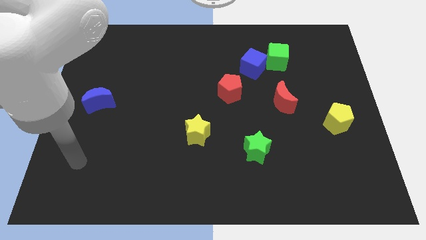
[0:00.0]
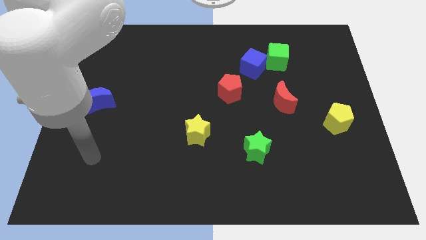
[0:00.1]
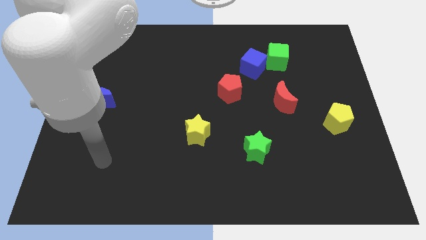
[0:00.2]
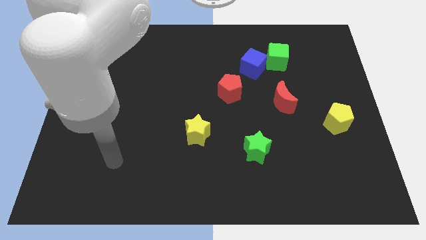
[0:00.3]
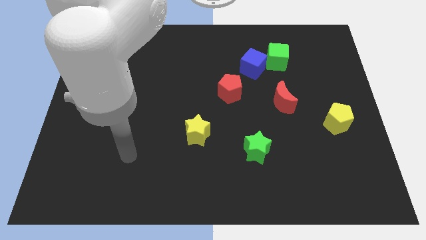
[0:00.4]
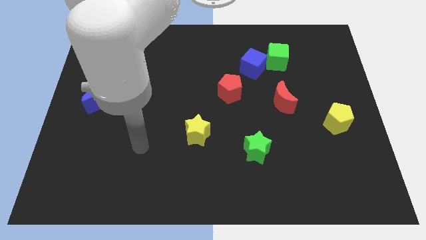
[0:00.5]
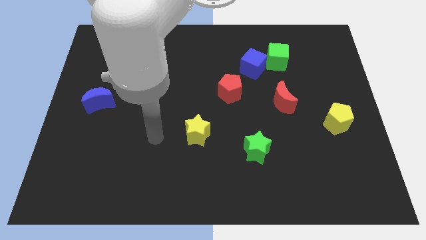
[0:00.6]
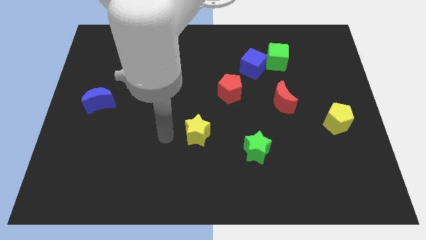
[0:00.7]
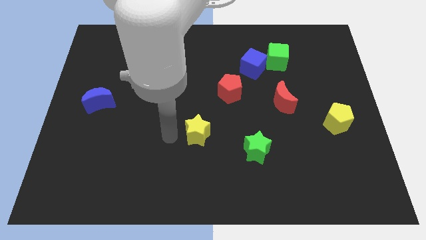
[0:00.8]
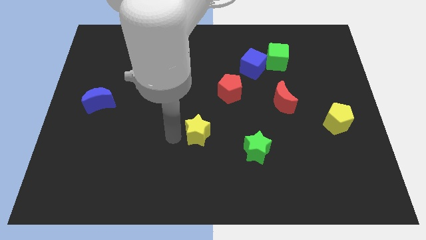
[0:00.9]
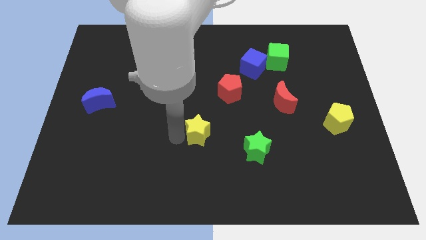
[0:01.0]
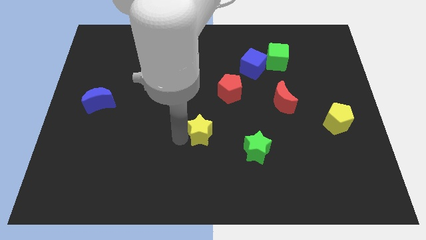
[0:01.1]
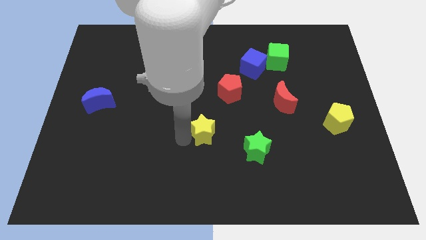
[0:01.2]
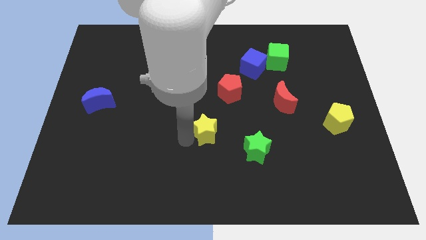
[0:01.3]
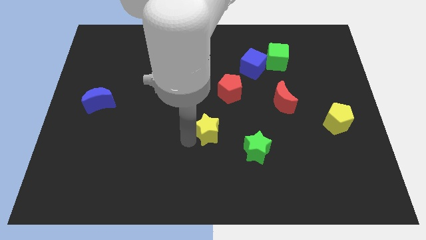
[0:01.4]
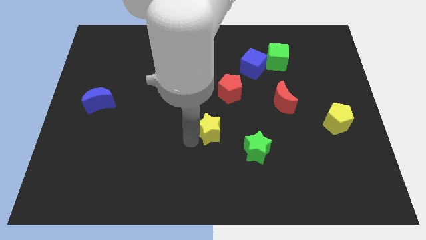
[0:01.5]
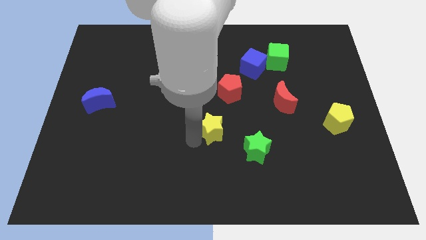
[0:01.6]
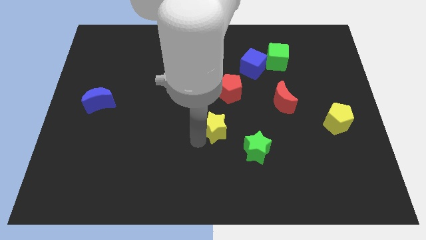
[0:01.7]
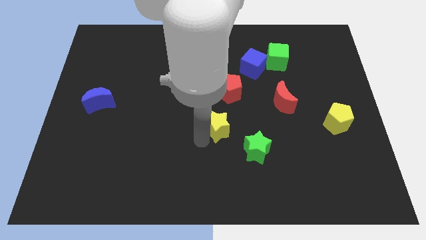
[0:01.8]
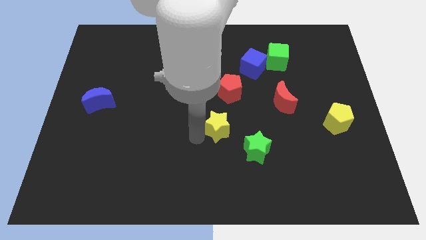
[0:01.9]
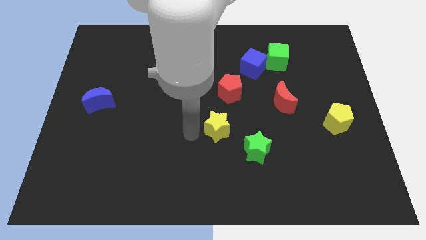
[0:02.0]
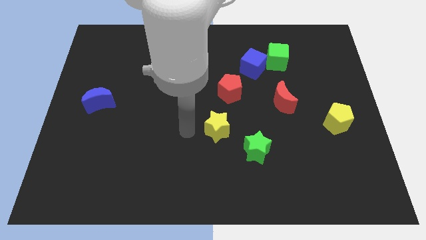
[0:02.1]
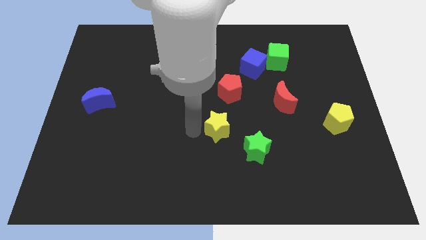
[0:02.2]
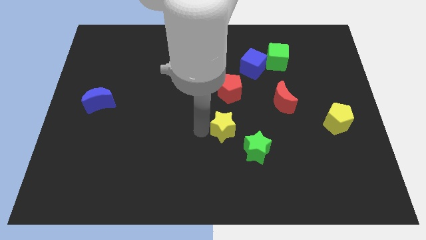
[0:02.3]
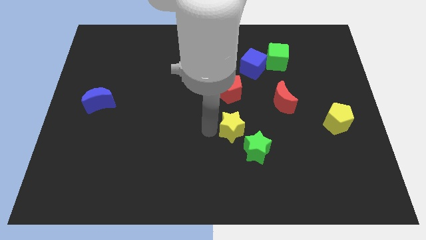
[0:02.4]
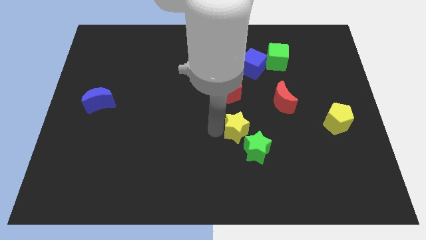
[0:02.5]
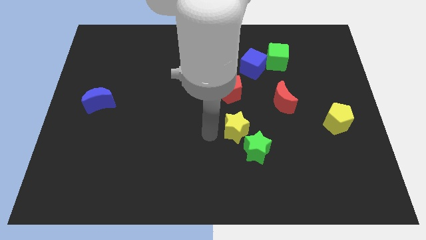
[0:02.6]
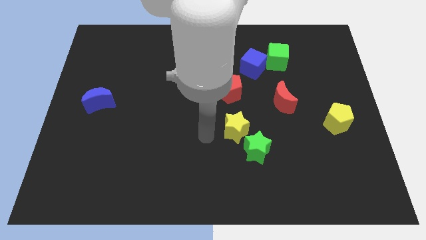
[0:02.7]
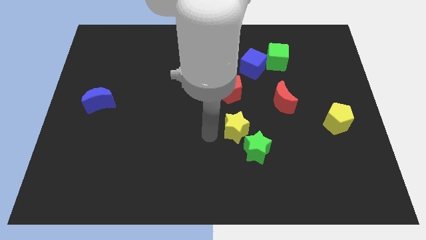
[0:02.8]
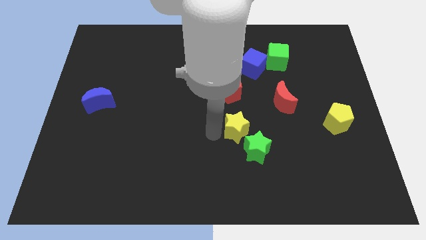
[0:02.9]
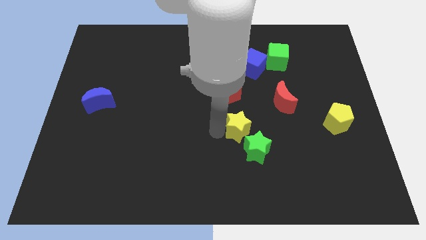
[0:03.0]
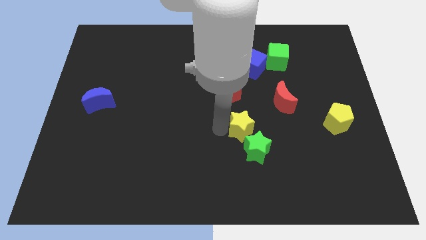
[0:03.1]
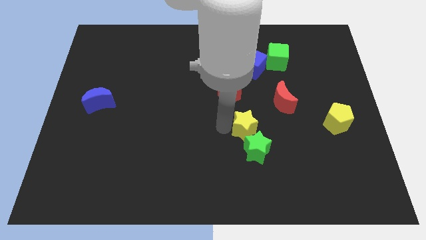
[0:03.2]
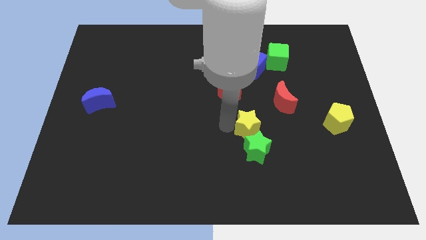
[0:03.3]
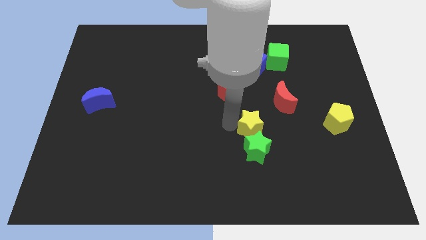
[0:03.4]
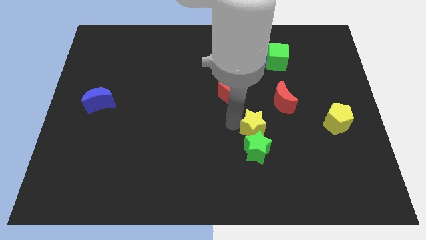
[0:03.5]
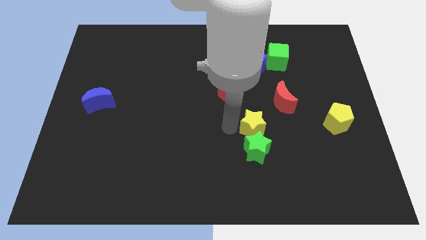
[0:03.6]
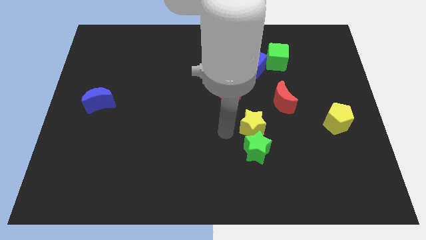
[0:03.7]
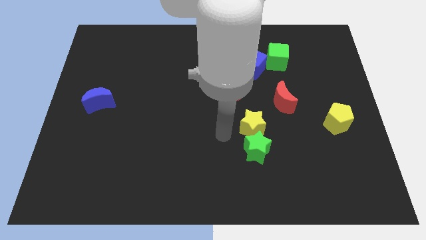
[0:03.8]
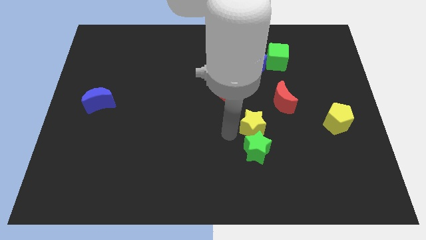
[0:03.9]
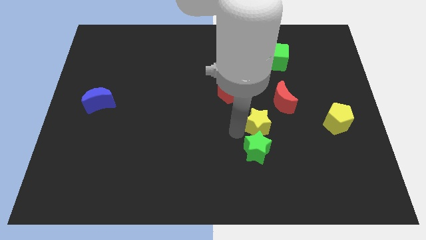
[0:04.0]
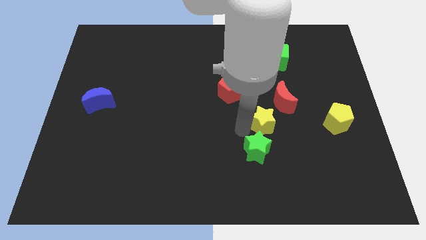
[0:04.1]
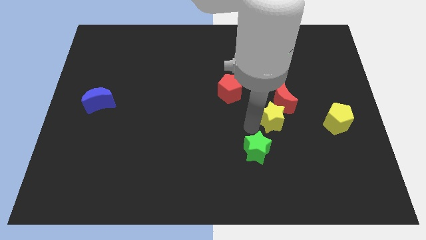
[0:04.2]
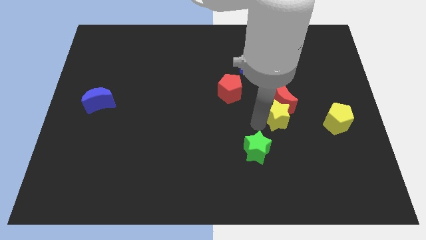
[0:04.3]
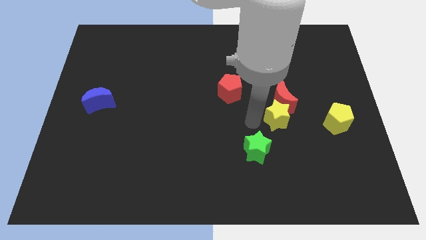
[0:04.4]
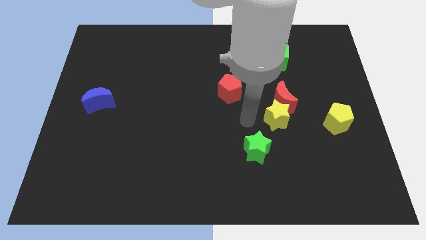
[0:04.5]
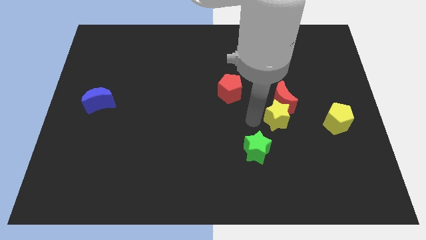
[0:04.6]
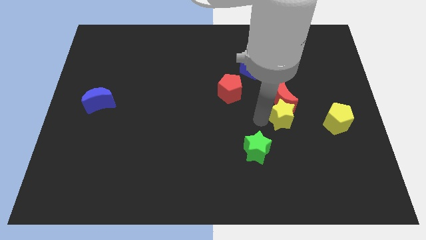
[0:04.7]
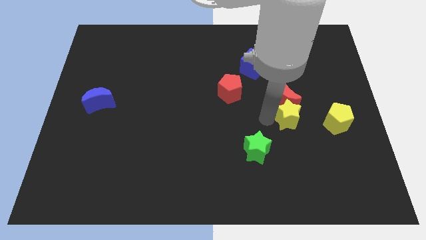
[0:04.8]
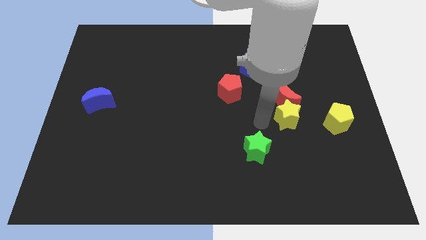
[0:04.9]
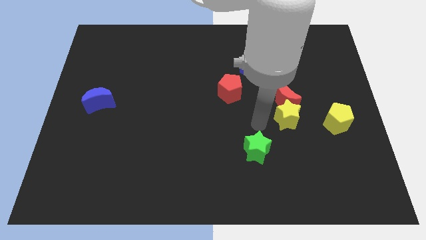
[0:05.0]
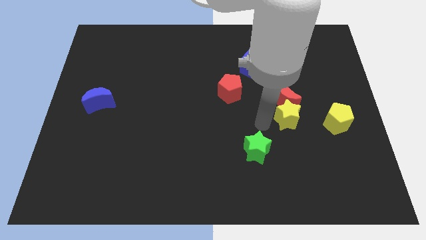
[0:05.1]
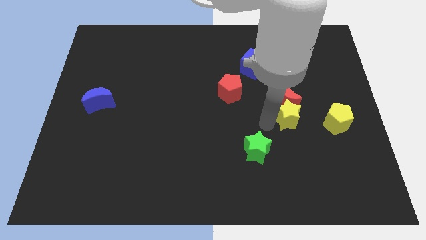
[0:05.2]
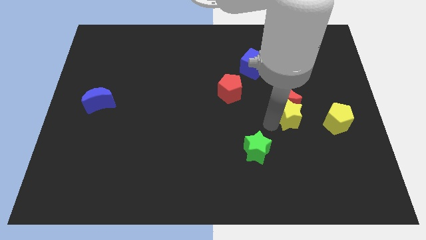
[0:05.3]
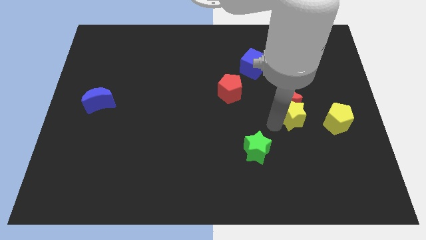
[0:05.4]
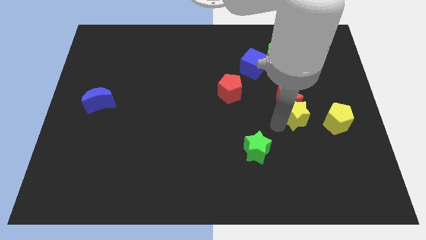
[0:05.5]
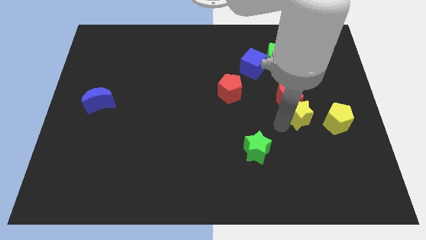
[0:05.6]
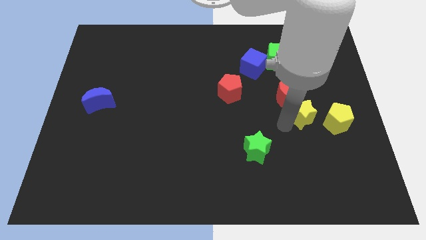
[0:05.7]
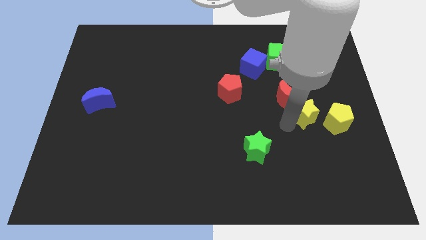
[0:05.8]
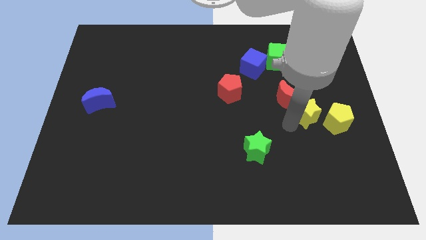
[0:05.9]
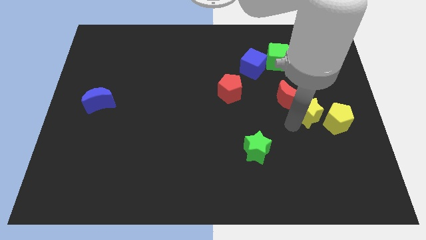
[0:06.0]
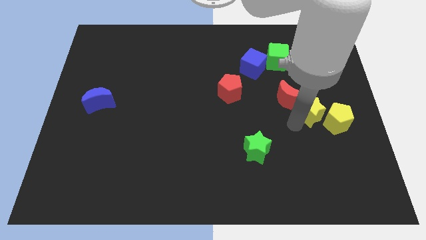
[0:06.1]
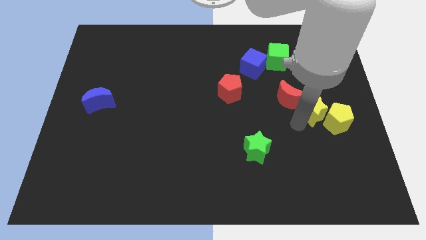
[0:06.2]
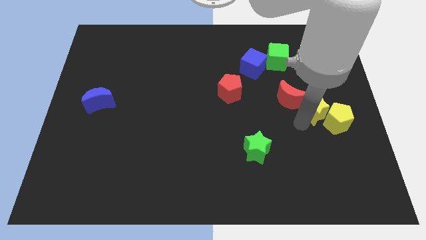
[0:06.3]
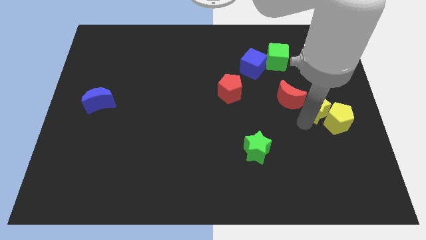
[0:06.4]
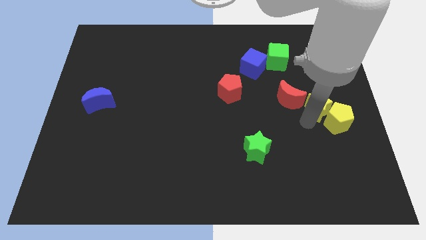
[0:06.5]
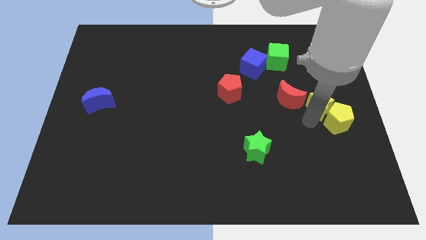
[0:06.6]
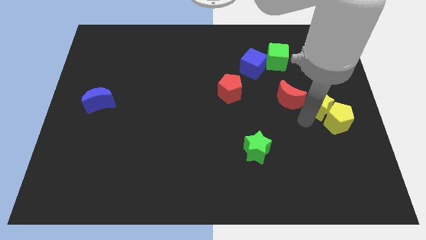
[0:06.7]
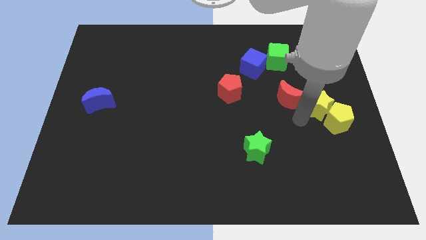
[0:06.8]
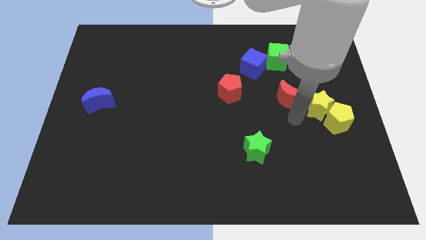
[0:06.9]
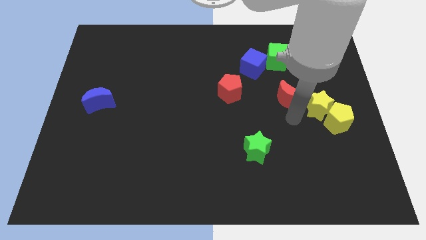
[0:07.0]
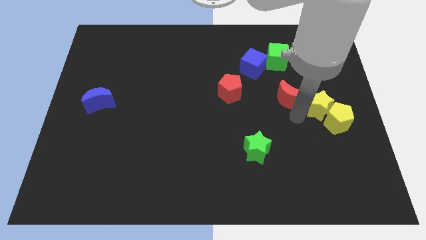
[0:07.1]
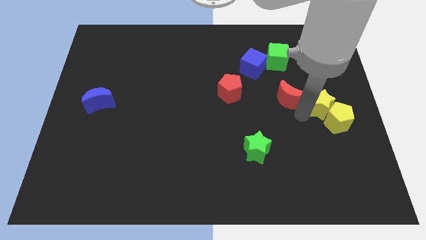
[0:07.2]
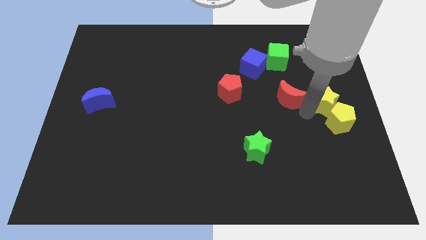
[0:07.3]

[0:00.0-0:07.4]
put the yellow star to the right side of the board
